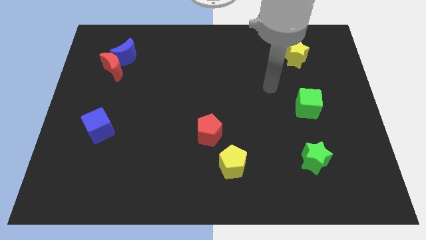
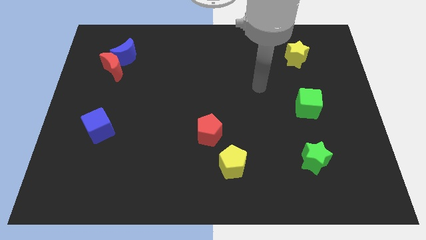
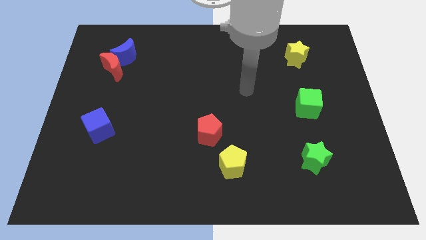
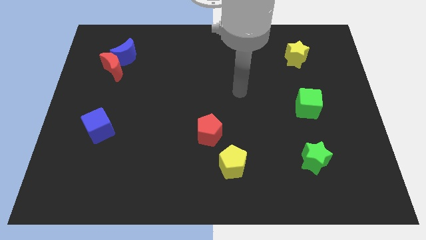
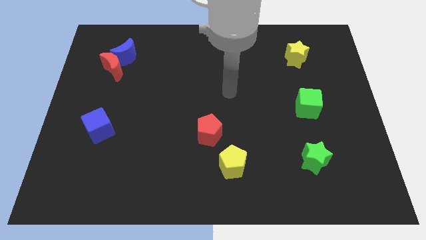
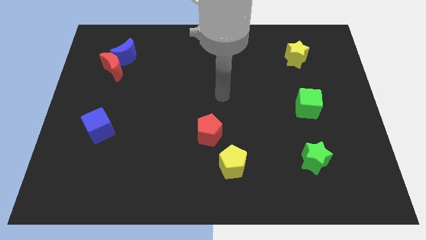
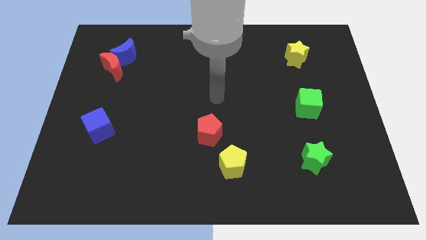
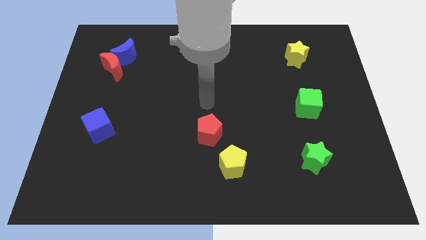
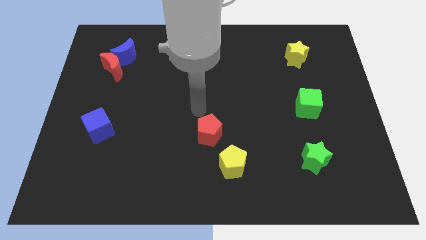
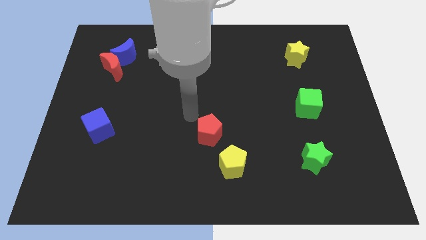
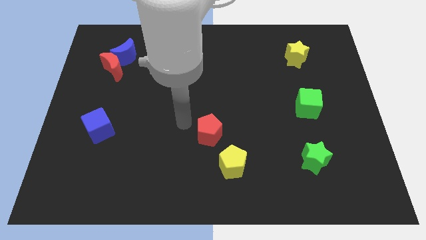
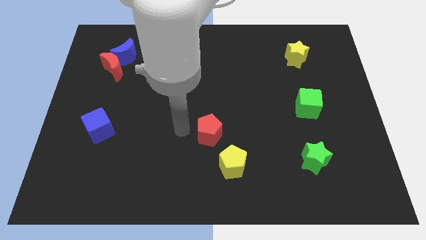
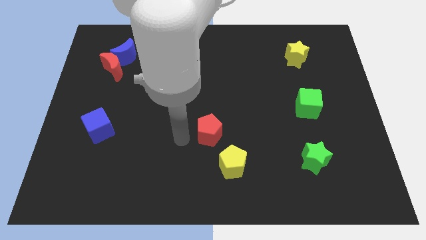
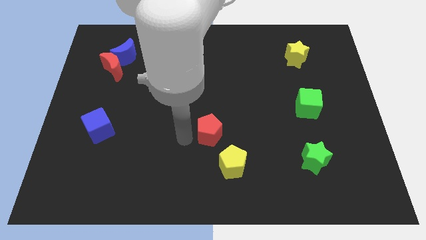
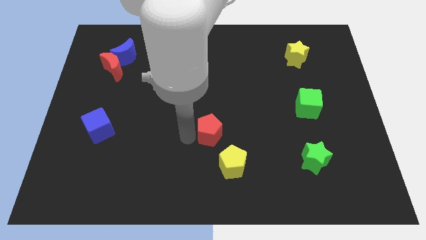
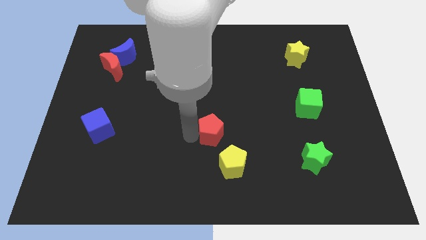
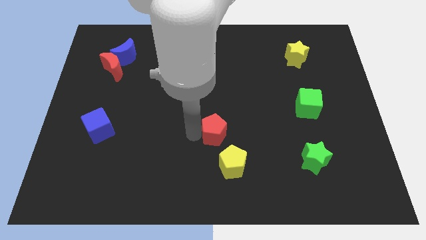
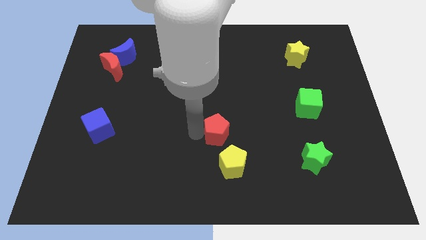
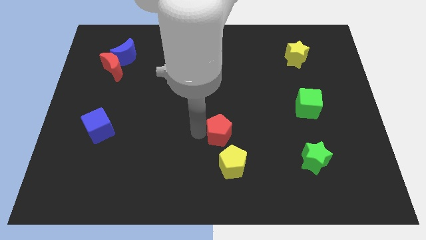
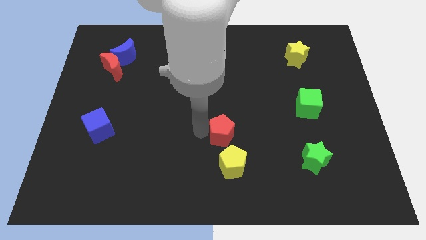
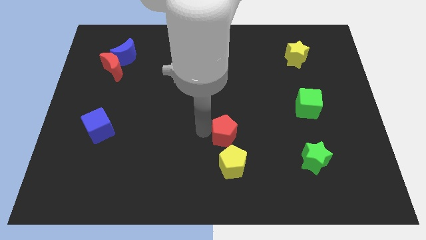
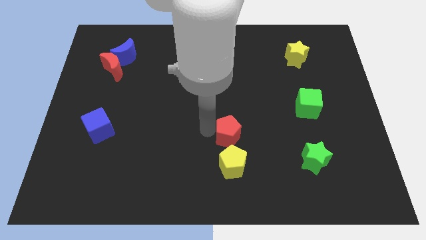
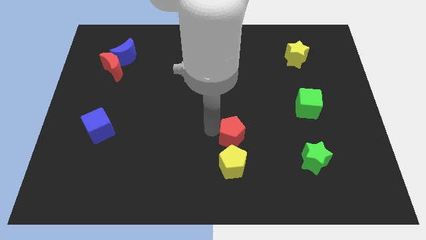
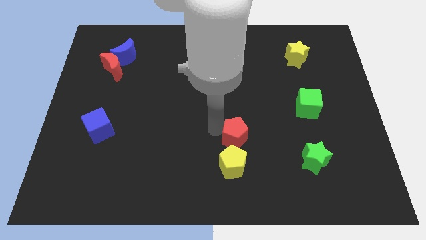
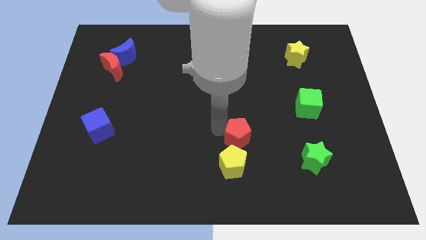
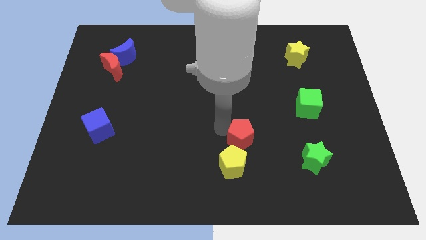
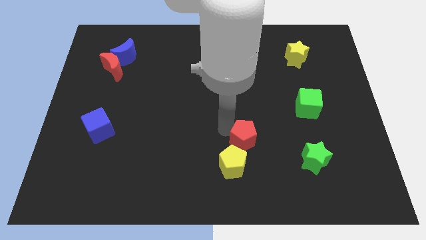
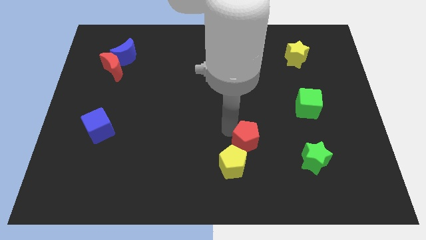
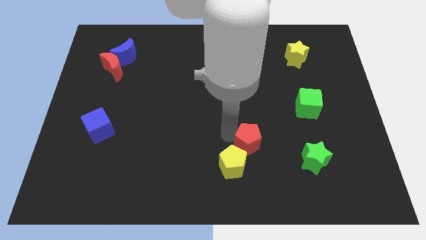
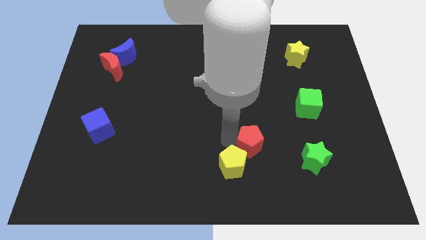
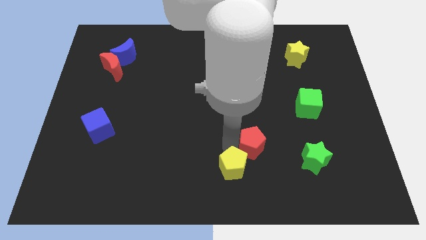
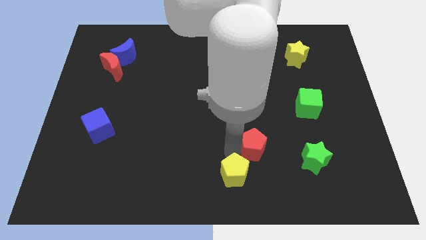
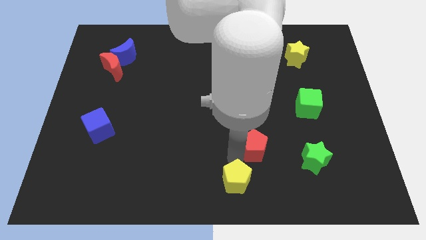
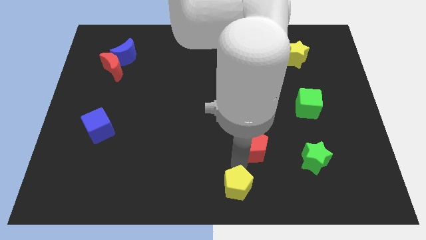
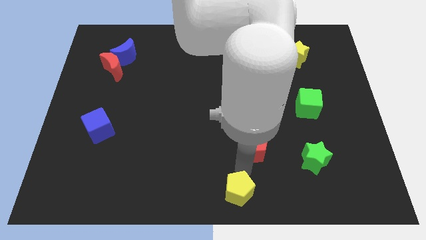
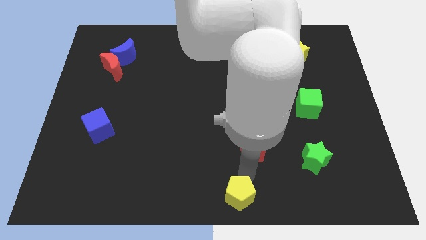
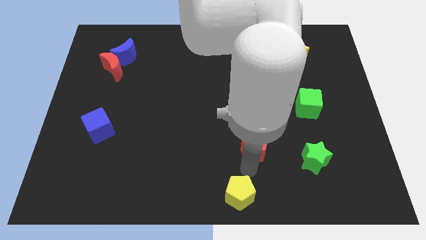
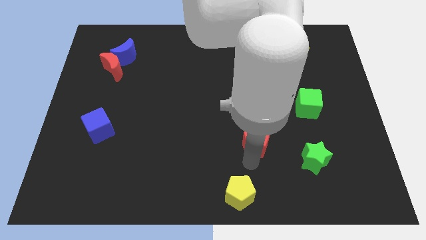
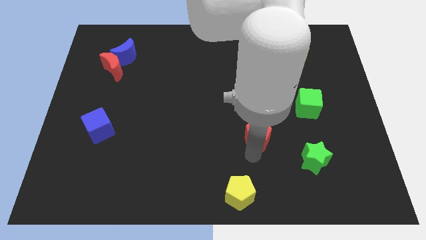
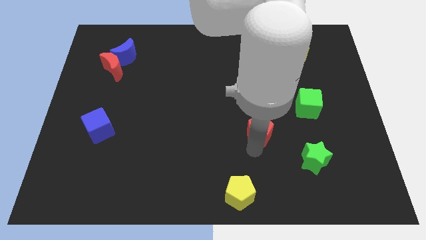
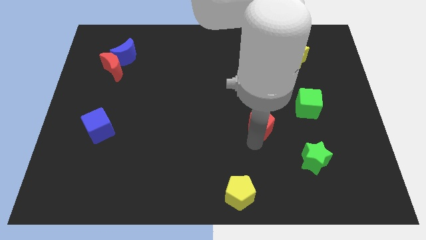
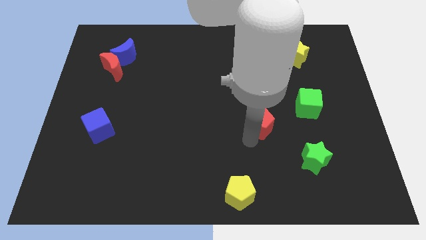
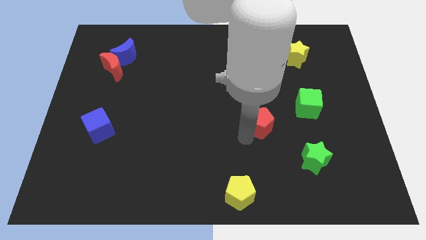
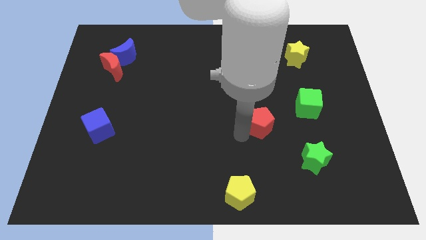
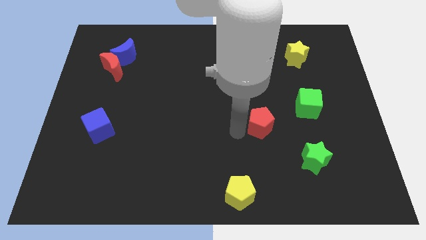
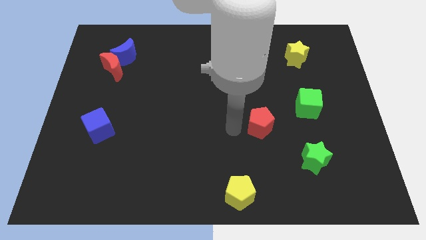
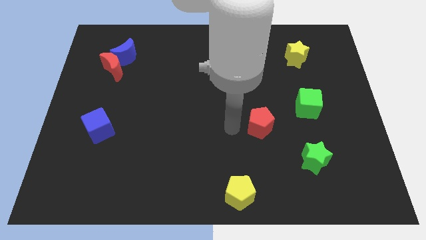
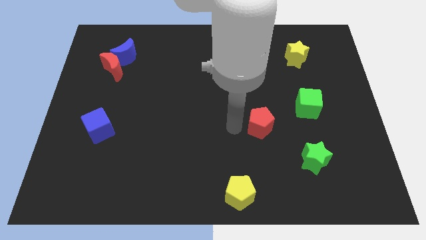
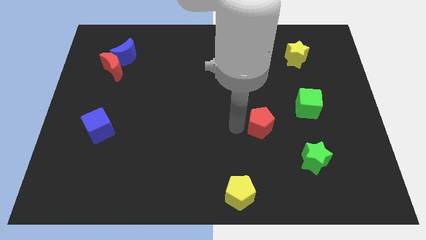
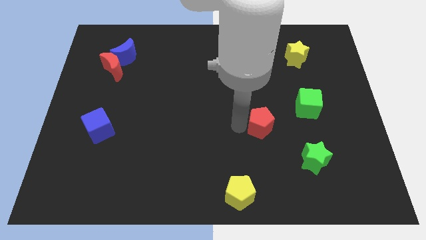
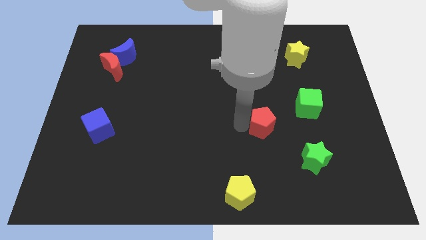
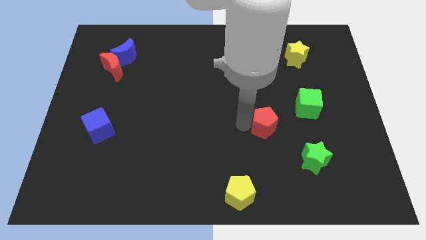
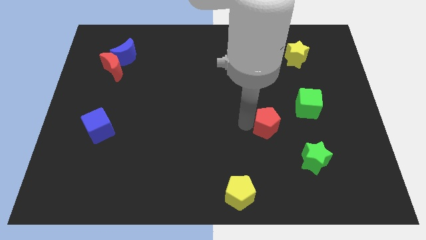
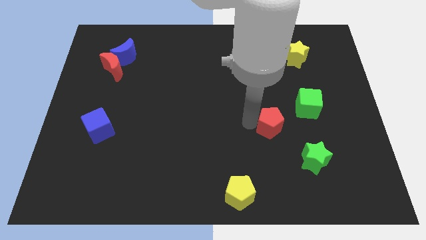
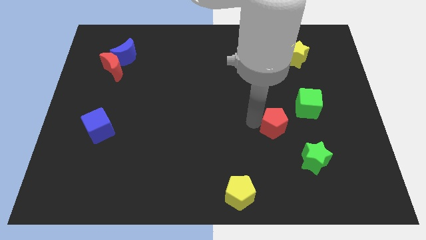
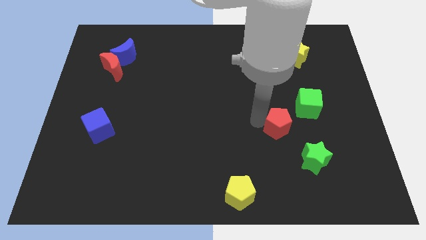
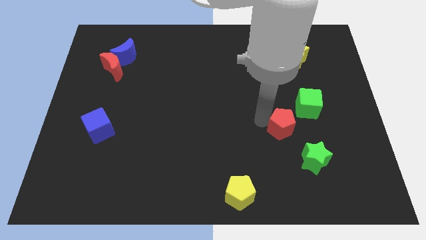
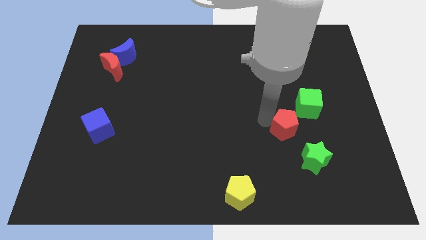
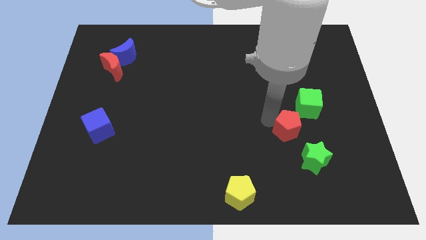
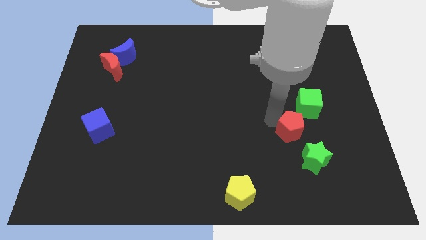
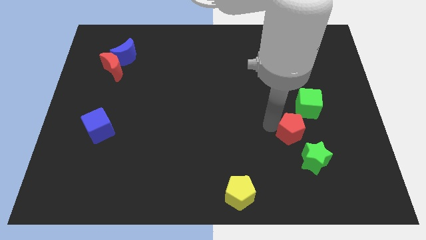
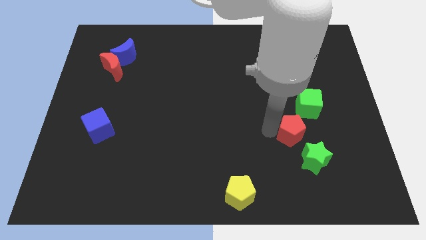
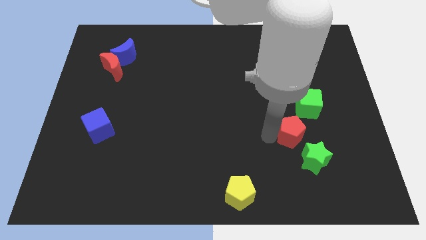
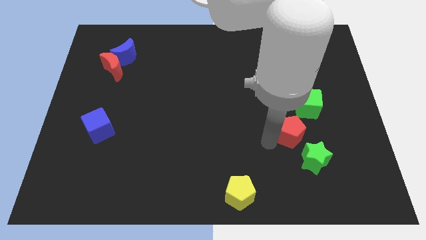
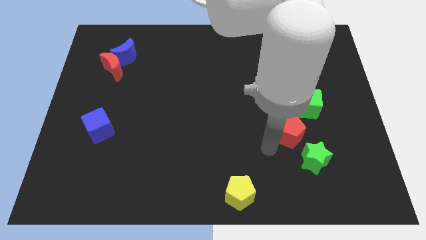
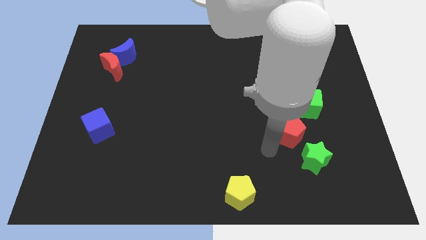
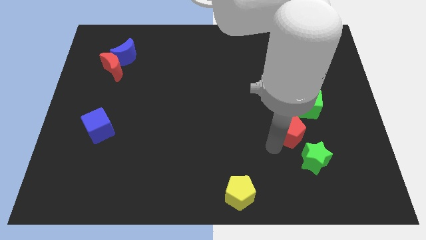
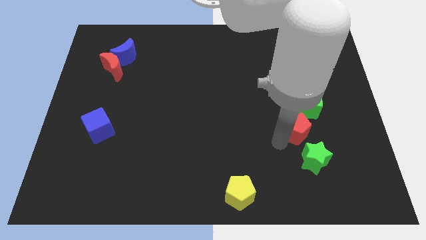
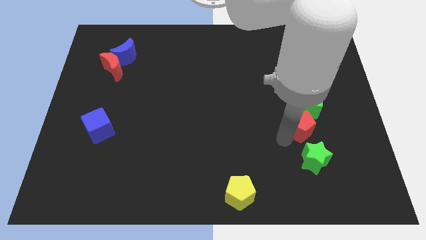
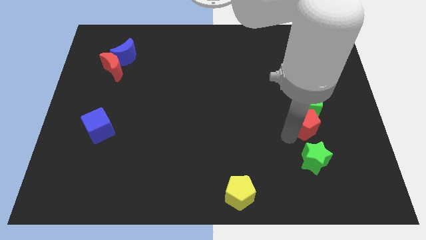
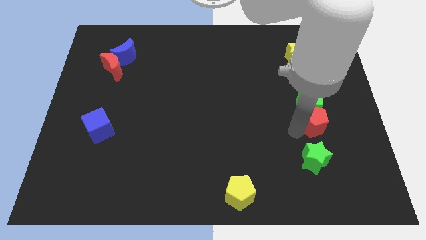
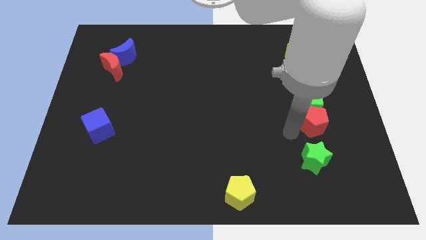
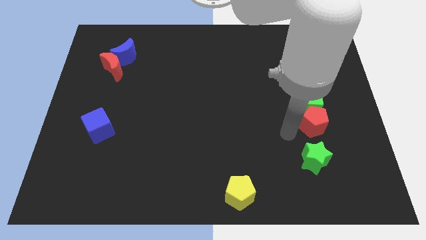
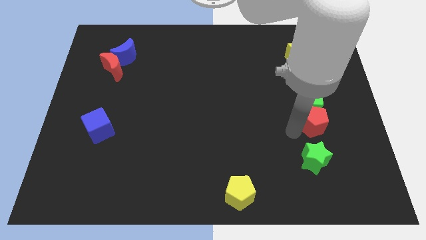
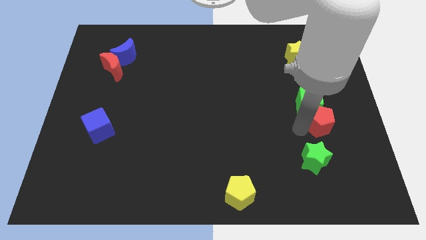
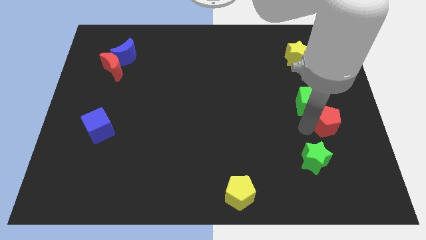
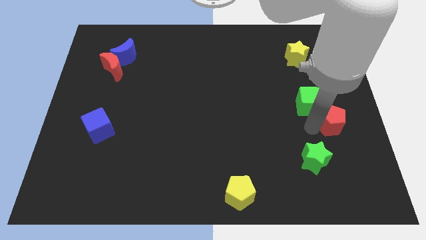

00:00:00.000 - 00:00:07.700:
push the red pentagon to the right side of the board
